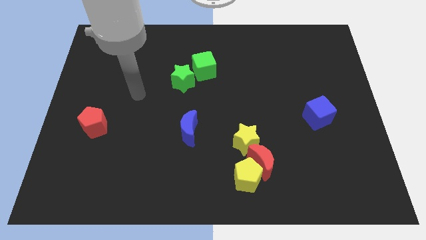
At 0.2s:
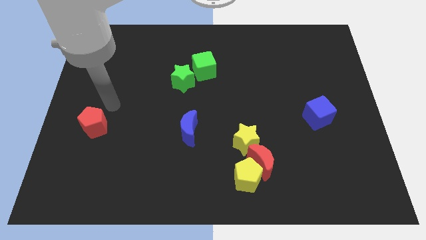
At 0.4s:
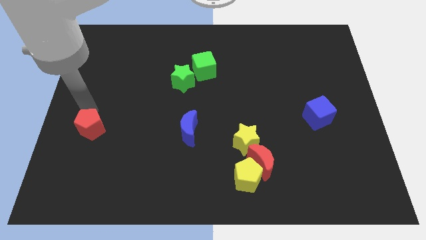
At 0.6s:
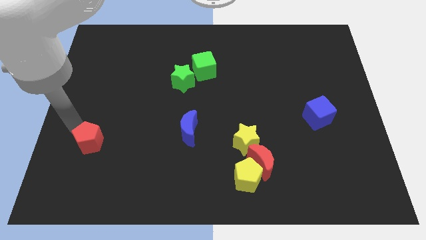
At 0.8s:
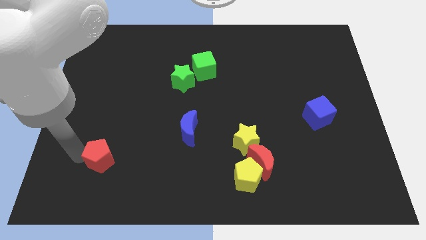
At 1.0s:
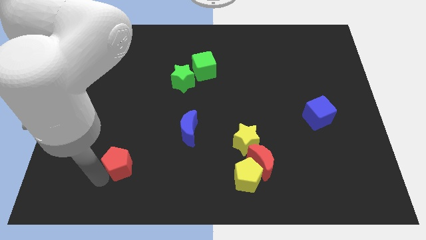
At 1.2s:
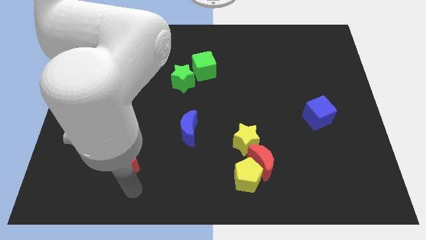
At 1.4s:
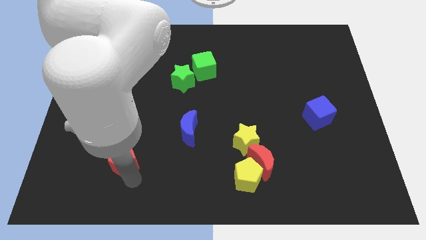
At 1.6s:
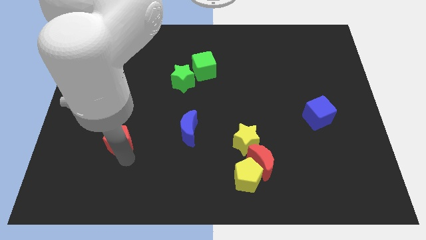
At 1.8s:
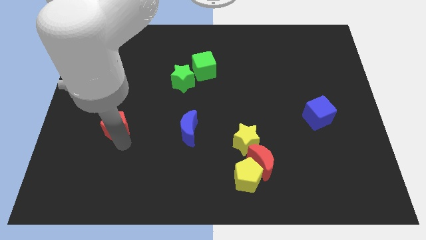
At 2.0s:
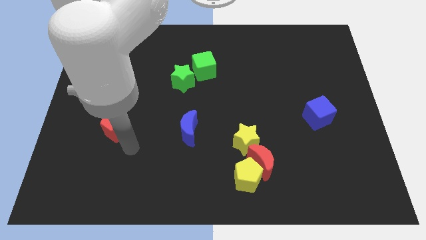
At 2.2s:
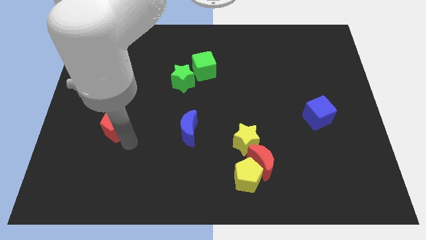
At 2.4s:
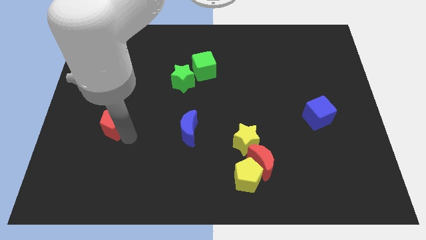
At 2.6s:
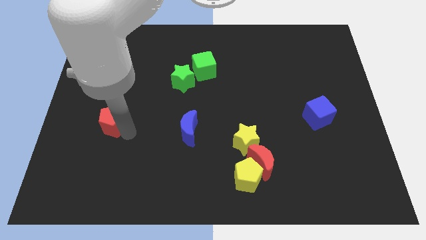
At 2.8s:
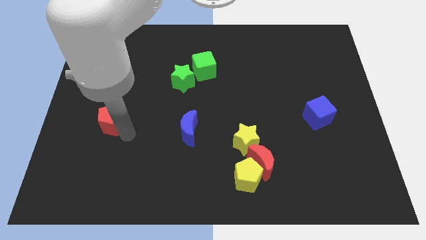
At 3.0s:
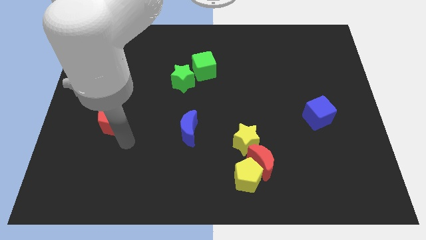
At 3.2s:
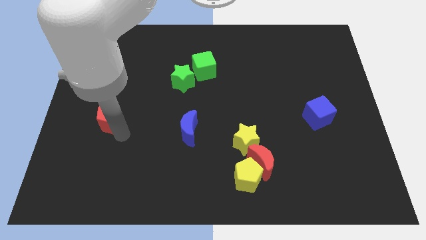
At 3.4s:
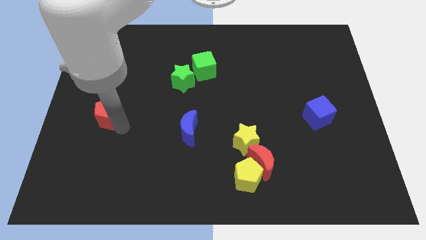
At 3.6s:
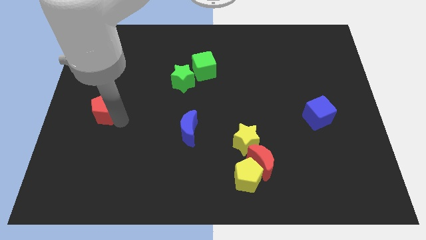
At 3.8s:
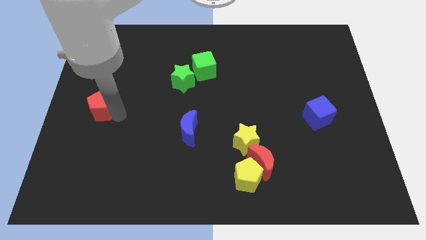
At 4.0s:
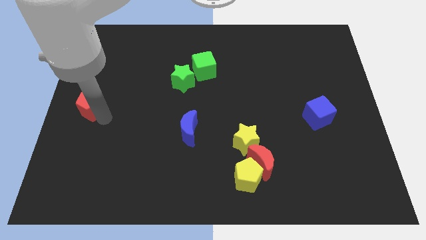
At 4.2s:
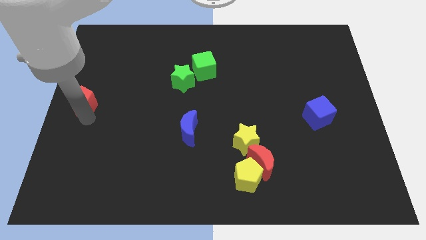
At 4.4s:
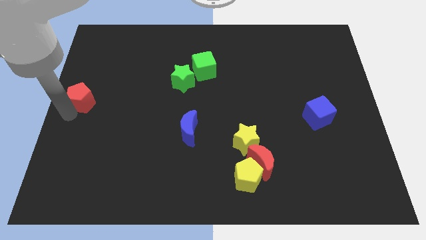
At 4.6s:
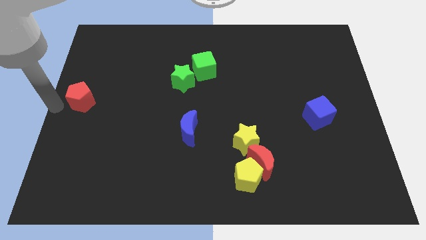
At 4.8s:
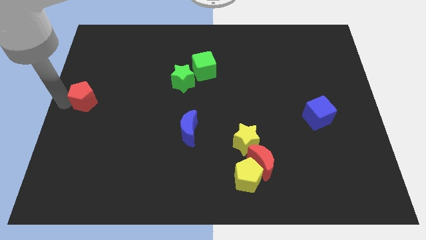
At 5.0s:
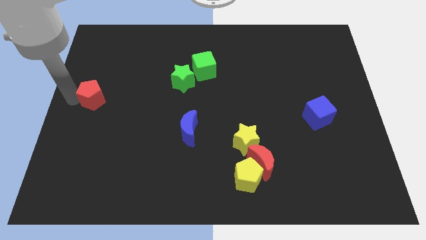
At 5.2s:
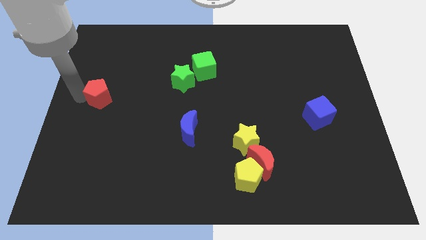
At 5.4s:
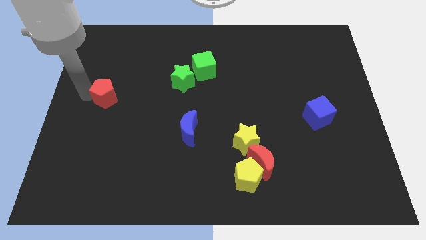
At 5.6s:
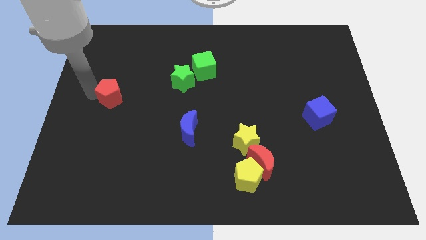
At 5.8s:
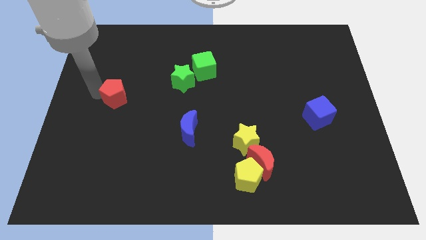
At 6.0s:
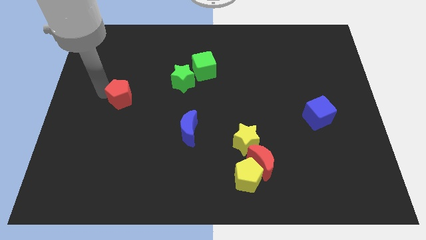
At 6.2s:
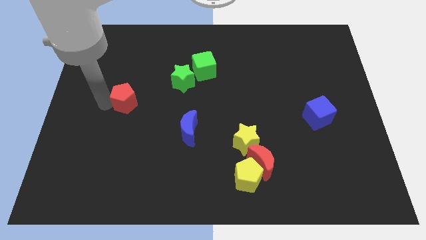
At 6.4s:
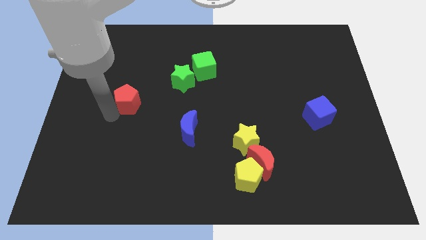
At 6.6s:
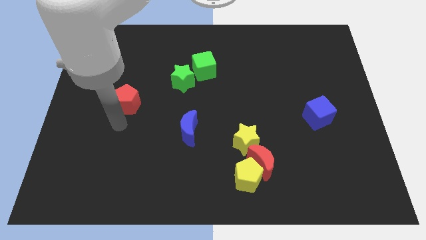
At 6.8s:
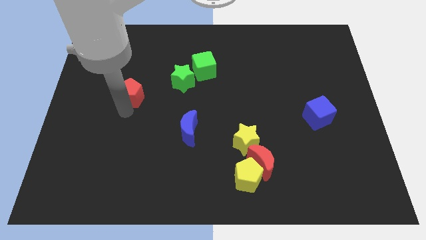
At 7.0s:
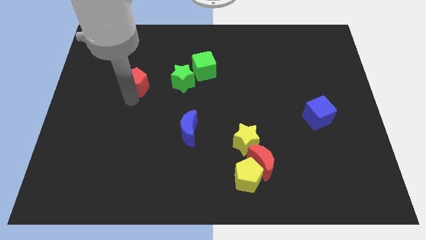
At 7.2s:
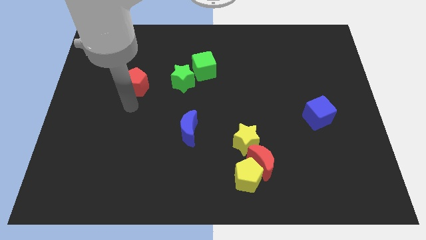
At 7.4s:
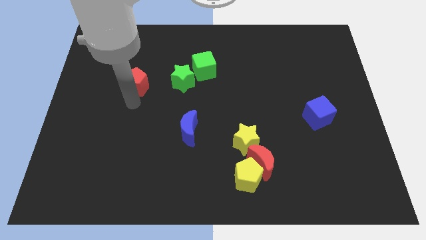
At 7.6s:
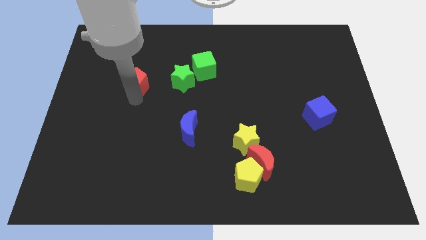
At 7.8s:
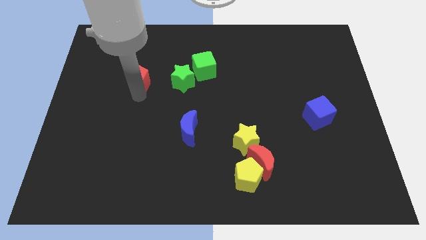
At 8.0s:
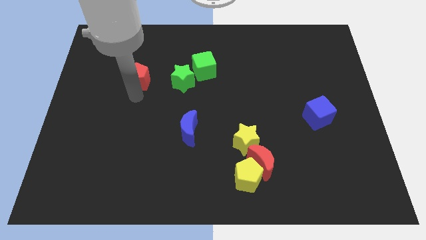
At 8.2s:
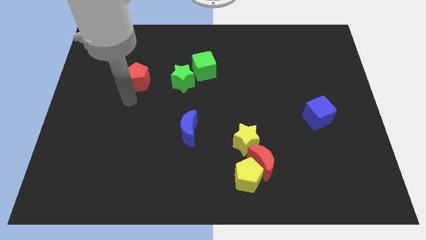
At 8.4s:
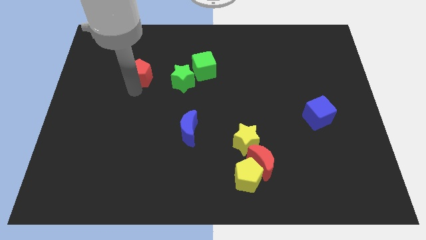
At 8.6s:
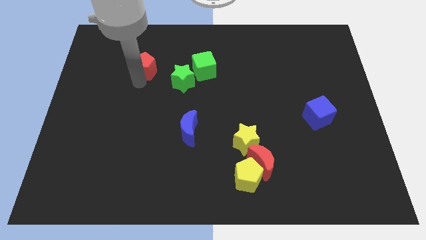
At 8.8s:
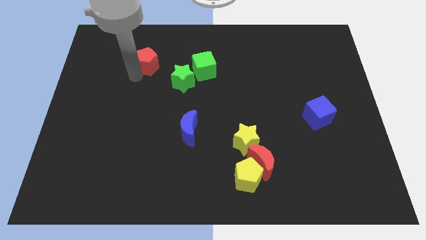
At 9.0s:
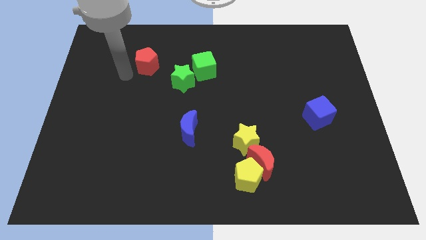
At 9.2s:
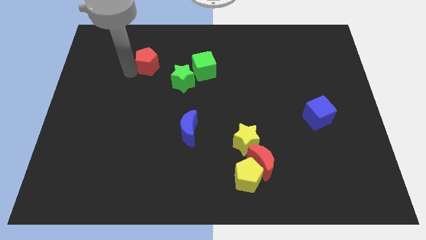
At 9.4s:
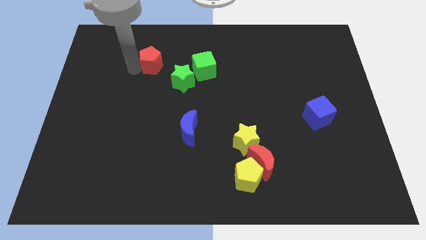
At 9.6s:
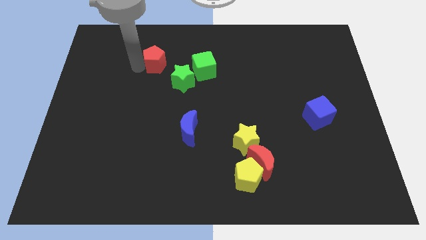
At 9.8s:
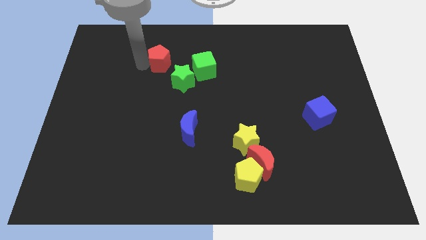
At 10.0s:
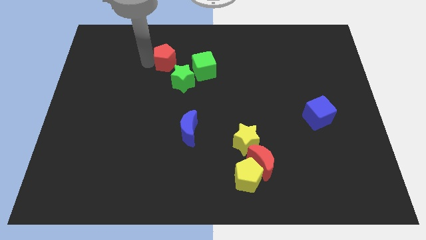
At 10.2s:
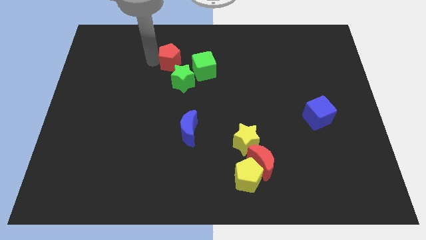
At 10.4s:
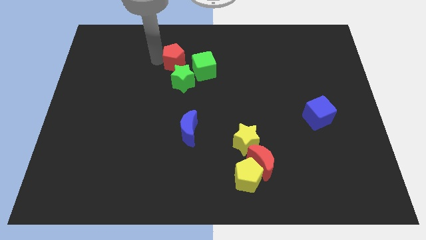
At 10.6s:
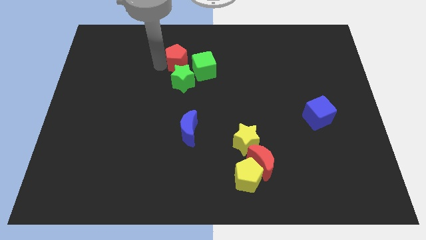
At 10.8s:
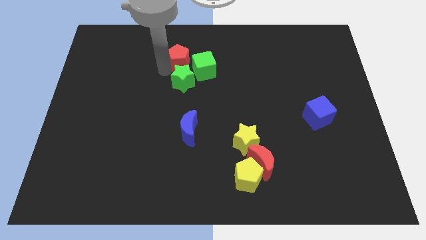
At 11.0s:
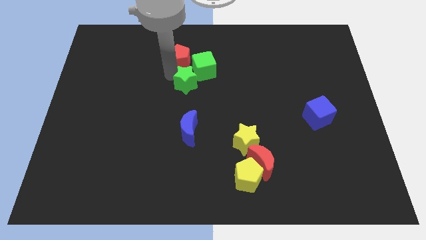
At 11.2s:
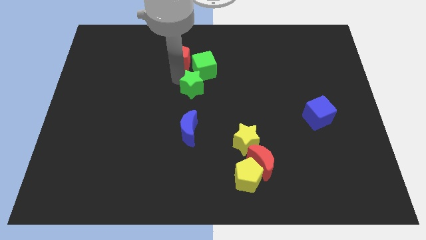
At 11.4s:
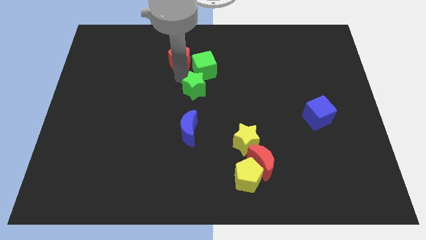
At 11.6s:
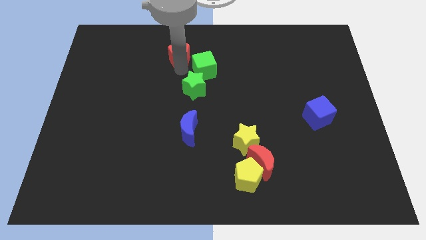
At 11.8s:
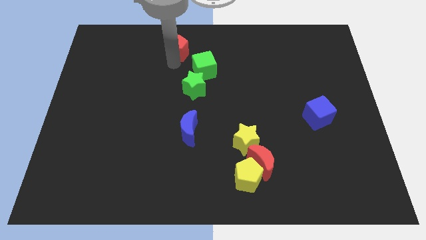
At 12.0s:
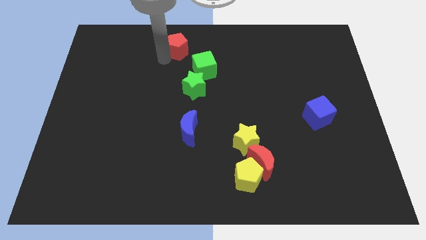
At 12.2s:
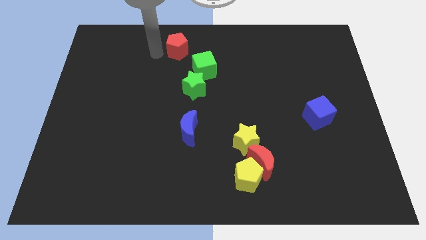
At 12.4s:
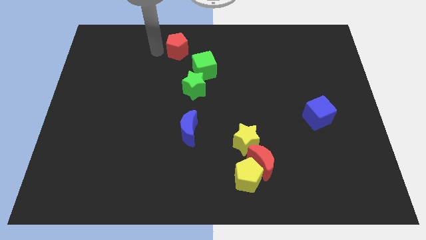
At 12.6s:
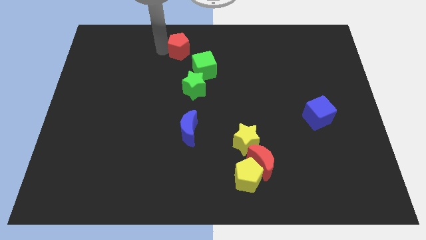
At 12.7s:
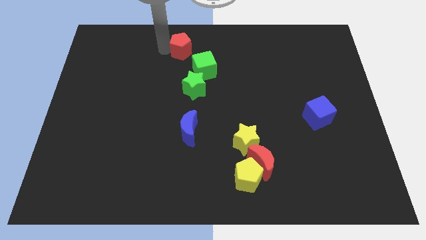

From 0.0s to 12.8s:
slide the red pentagon to the towards your base
